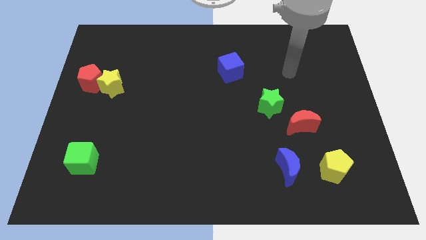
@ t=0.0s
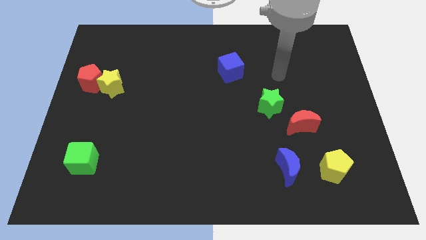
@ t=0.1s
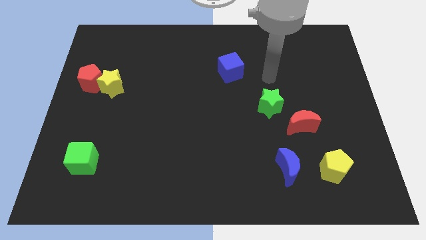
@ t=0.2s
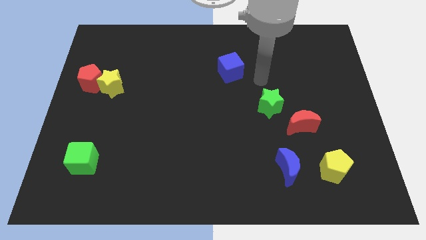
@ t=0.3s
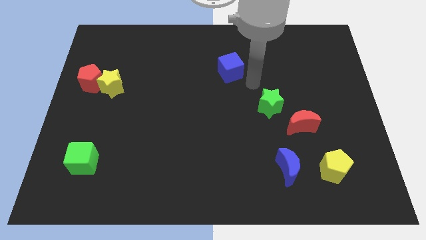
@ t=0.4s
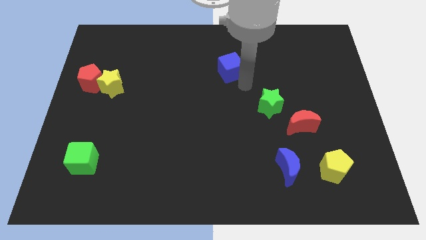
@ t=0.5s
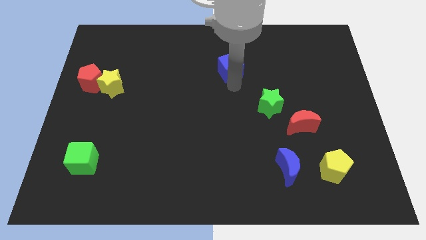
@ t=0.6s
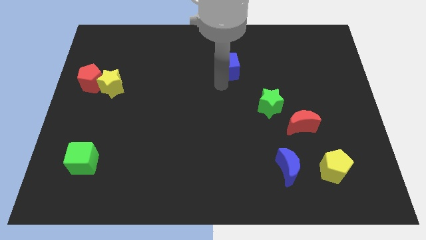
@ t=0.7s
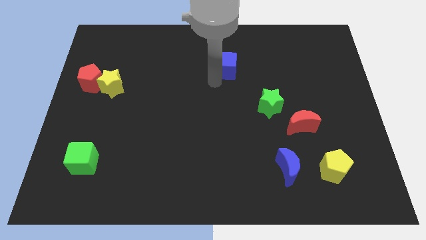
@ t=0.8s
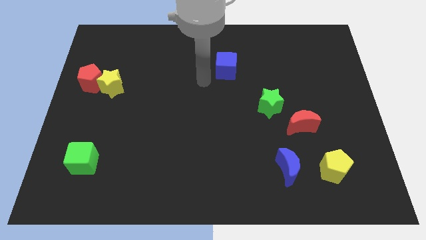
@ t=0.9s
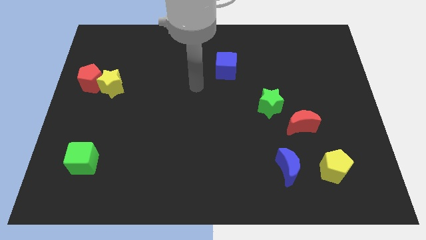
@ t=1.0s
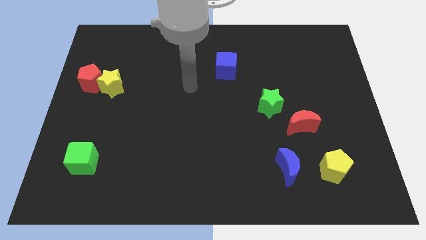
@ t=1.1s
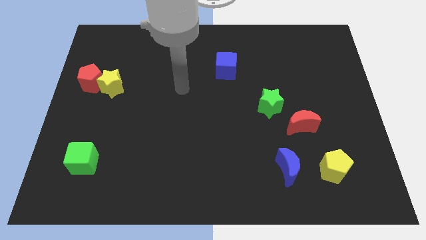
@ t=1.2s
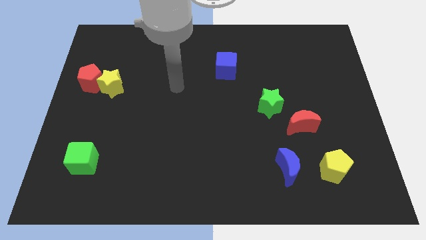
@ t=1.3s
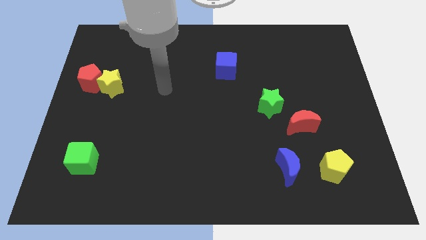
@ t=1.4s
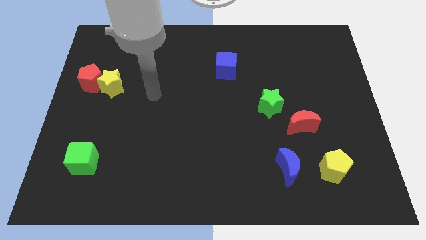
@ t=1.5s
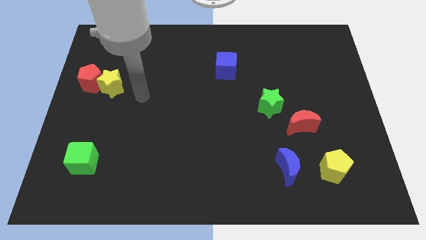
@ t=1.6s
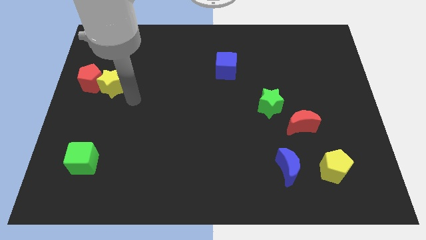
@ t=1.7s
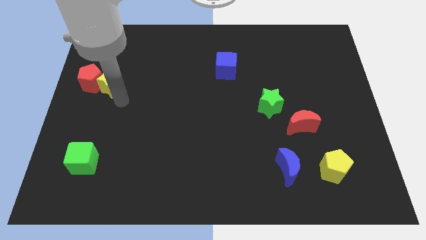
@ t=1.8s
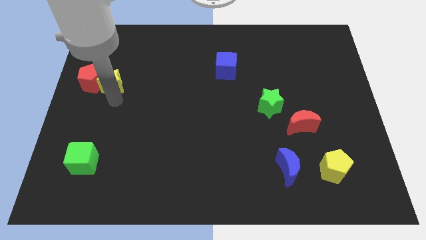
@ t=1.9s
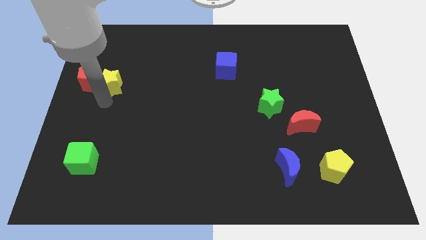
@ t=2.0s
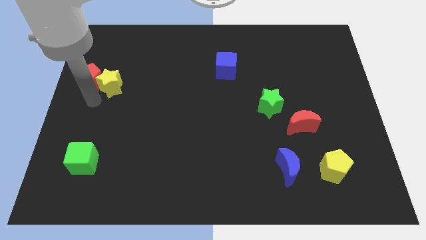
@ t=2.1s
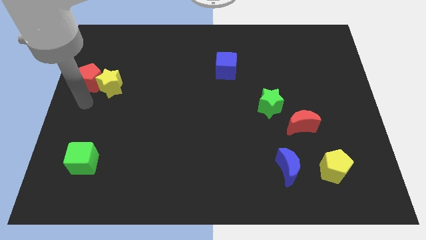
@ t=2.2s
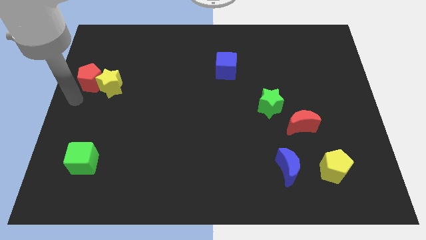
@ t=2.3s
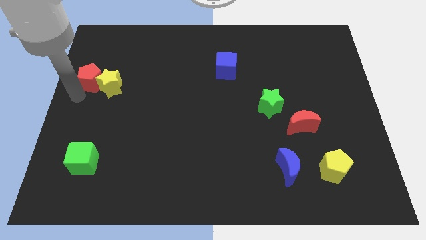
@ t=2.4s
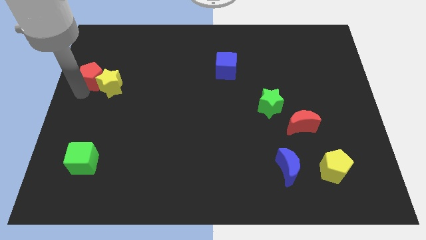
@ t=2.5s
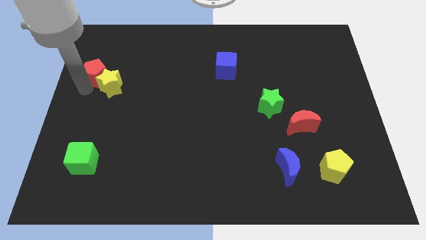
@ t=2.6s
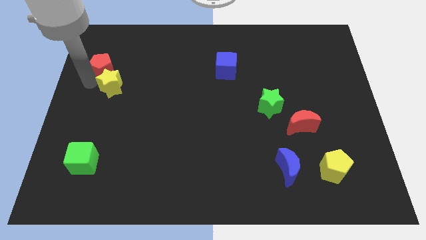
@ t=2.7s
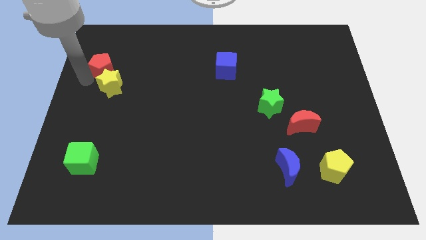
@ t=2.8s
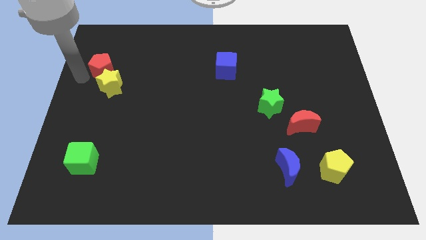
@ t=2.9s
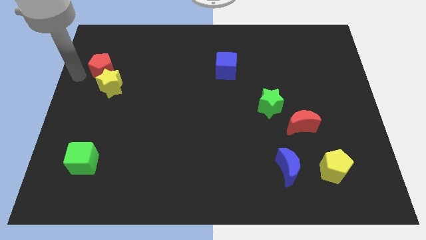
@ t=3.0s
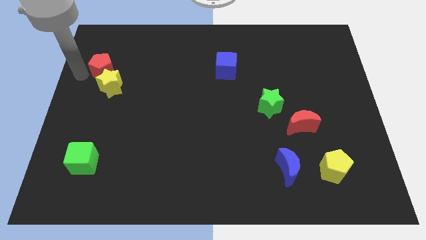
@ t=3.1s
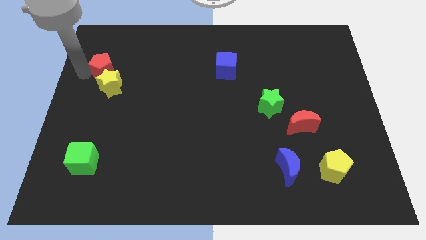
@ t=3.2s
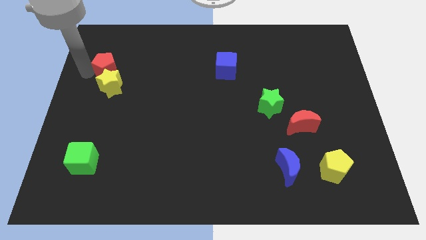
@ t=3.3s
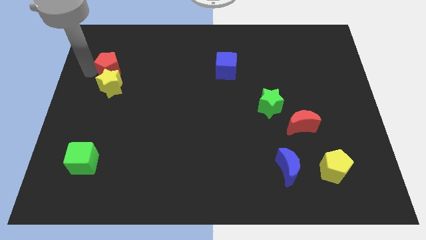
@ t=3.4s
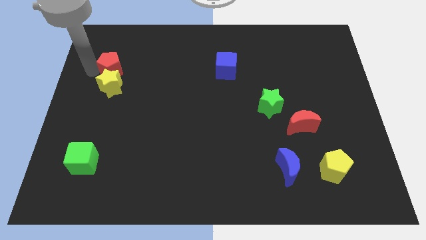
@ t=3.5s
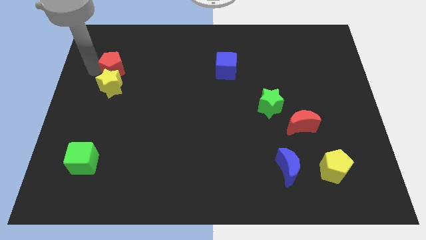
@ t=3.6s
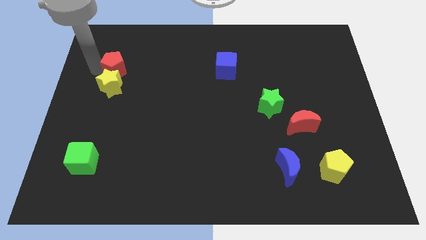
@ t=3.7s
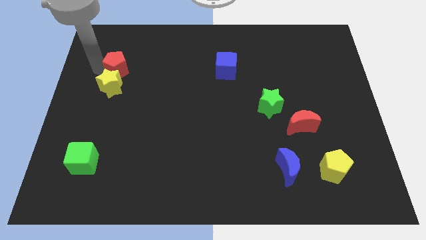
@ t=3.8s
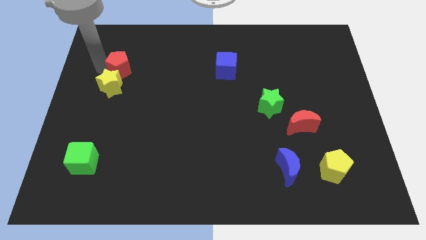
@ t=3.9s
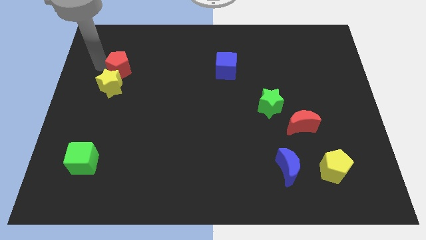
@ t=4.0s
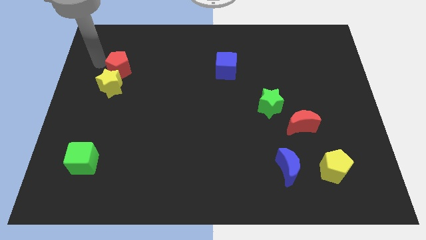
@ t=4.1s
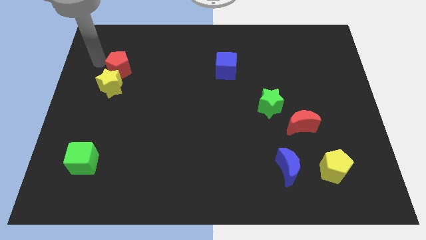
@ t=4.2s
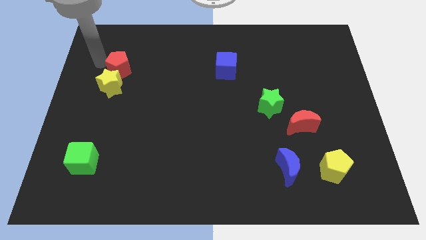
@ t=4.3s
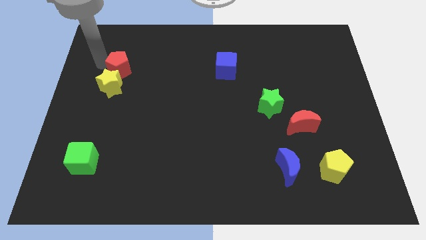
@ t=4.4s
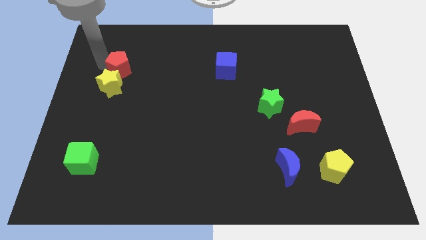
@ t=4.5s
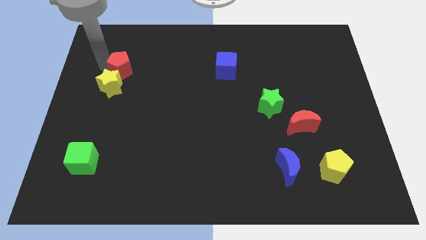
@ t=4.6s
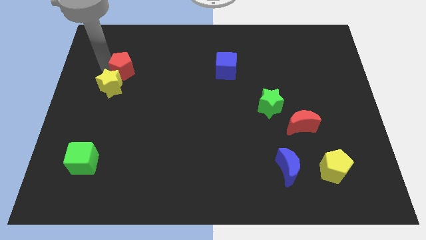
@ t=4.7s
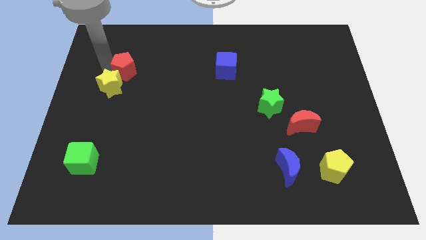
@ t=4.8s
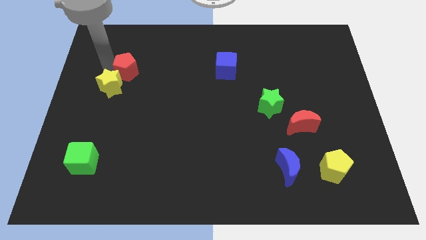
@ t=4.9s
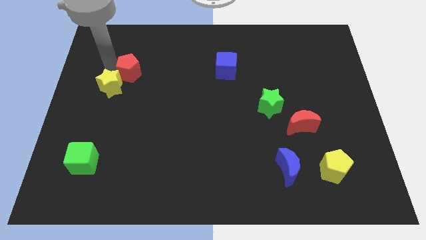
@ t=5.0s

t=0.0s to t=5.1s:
slide the red pentagon right of the yellow star

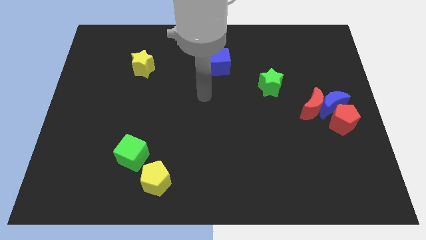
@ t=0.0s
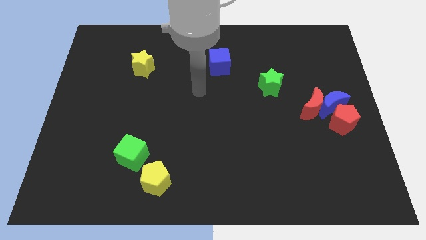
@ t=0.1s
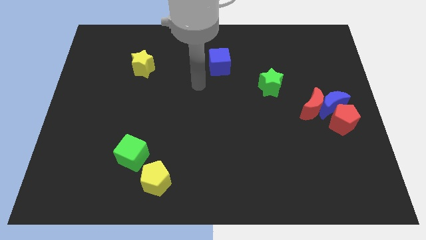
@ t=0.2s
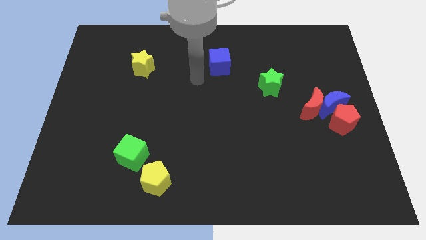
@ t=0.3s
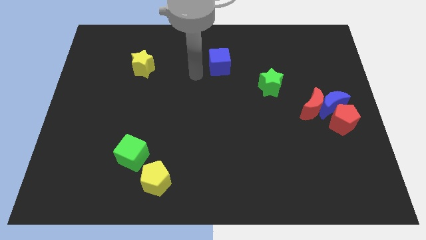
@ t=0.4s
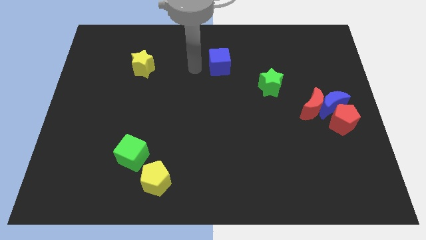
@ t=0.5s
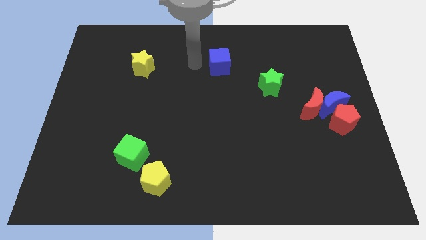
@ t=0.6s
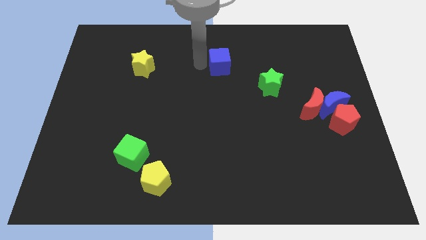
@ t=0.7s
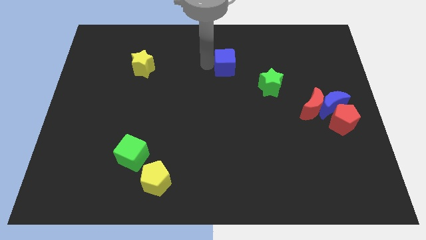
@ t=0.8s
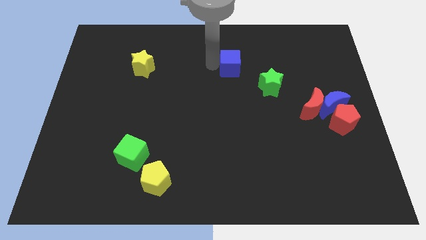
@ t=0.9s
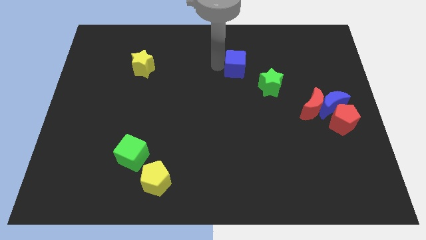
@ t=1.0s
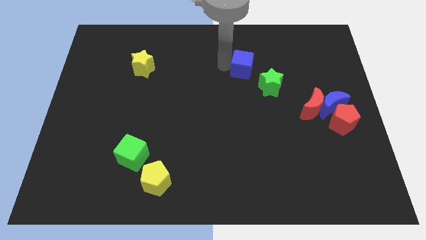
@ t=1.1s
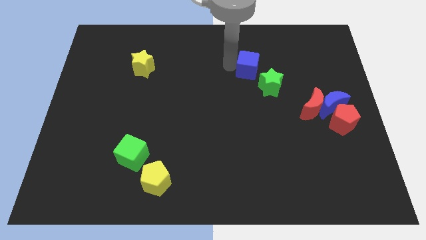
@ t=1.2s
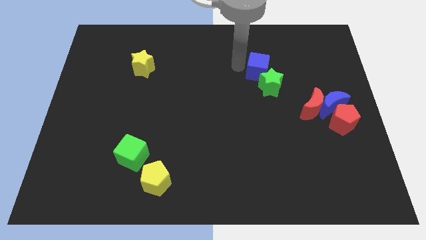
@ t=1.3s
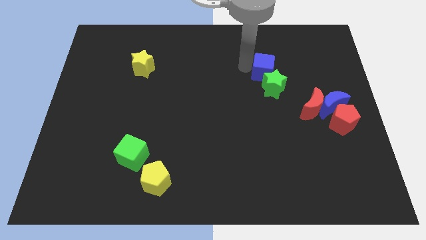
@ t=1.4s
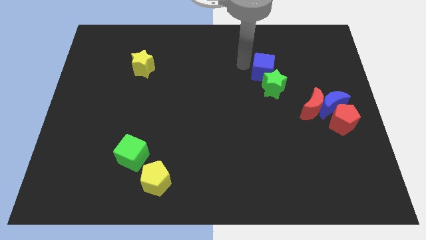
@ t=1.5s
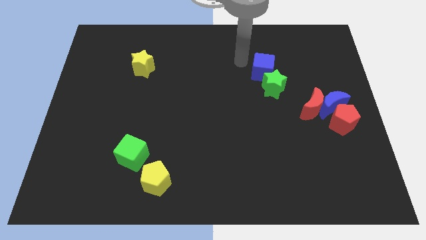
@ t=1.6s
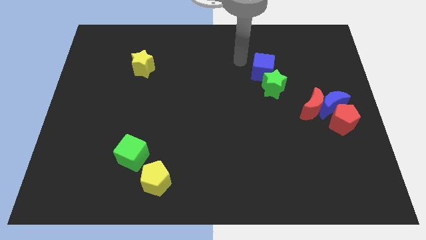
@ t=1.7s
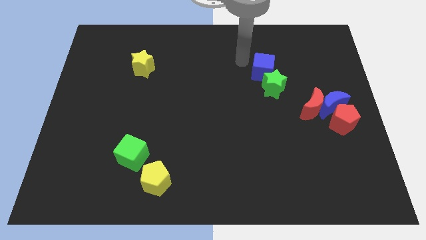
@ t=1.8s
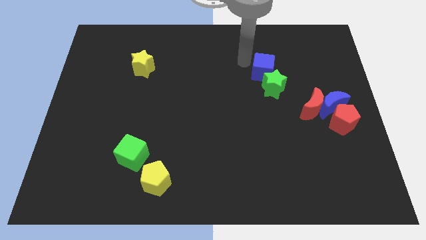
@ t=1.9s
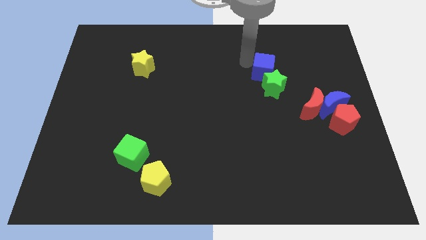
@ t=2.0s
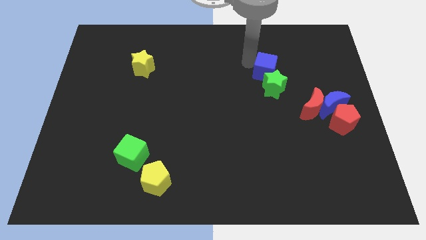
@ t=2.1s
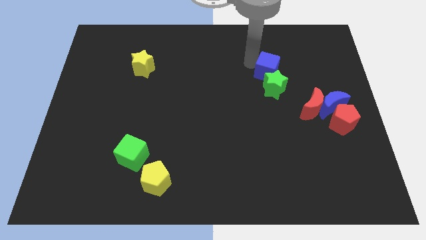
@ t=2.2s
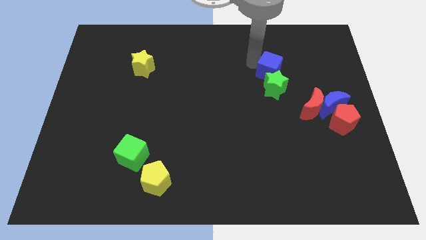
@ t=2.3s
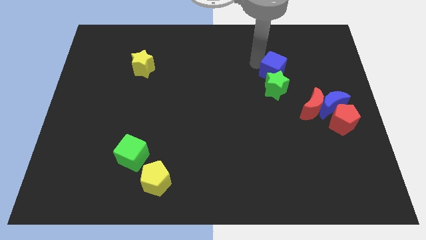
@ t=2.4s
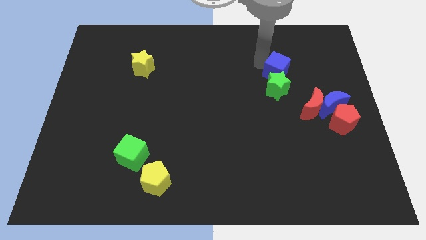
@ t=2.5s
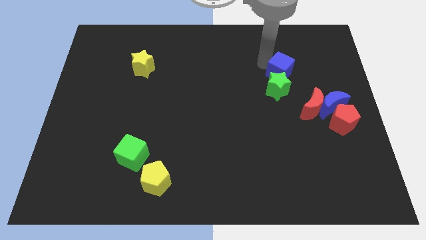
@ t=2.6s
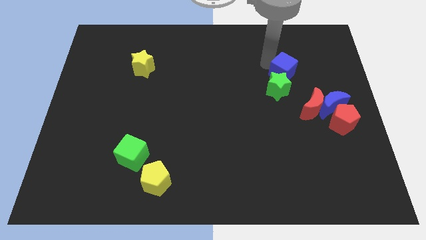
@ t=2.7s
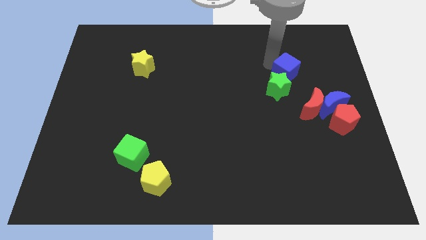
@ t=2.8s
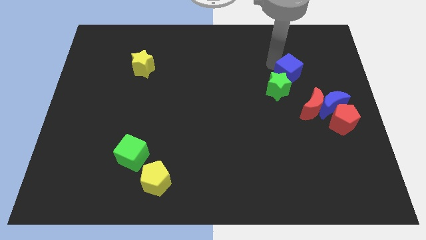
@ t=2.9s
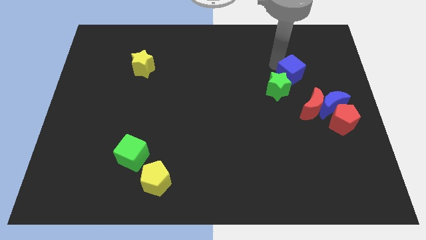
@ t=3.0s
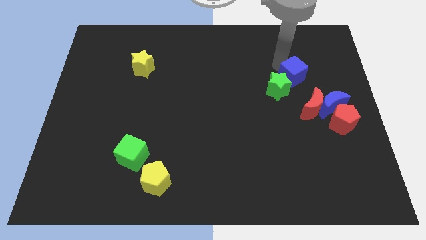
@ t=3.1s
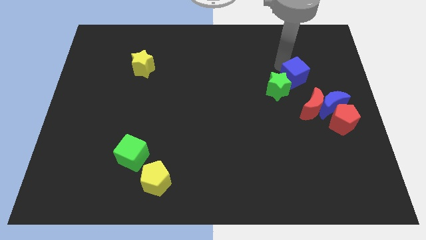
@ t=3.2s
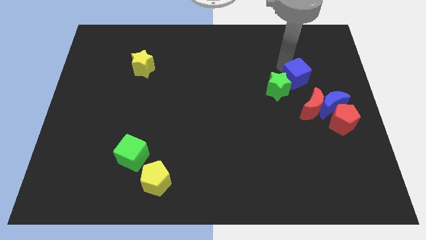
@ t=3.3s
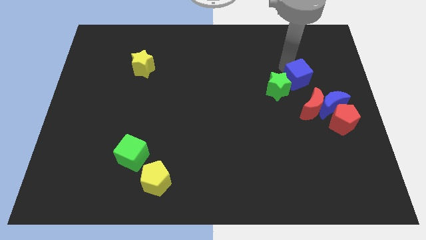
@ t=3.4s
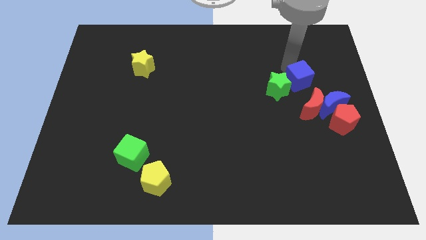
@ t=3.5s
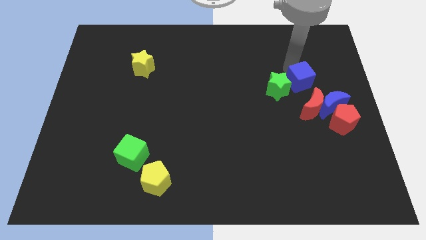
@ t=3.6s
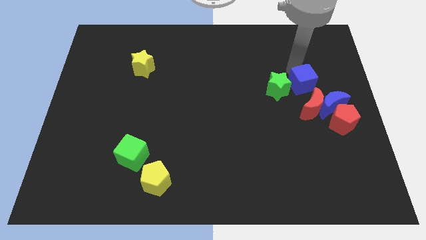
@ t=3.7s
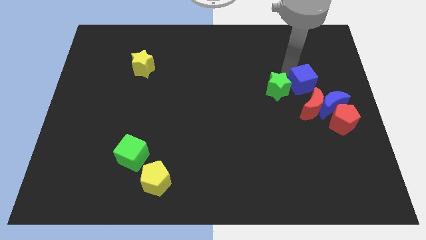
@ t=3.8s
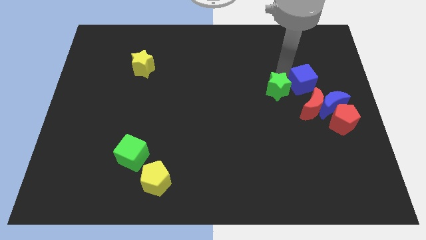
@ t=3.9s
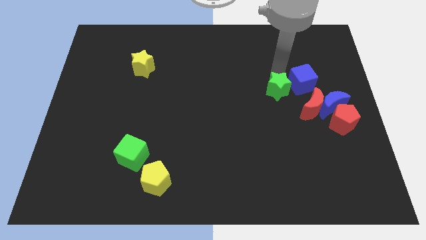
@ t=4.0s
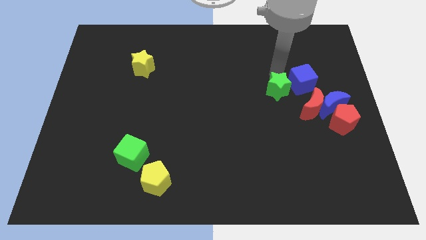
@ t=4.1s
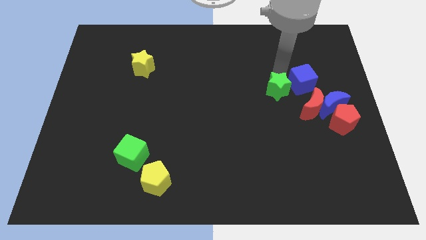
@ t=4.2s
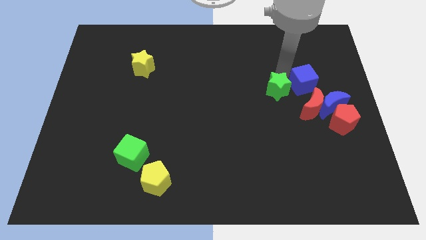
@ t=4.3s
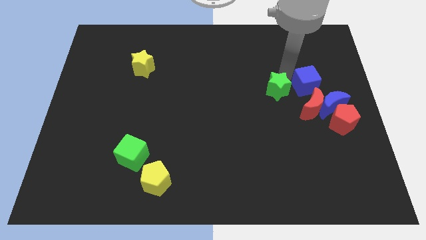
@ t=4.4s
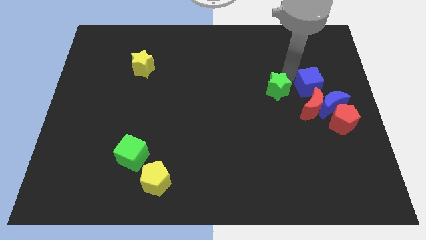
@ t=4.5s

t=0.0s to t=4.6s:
move the blue cube to the top right side of the red moon
